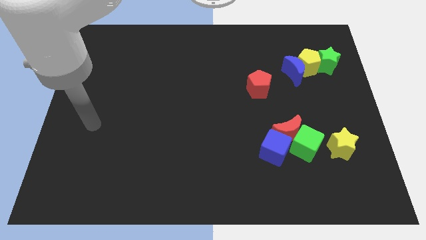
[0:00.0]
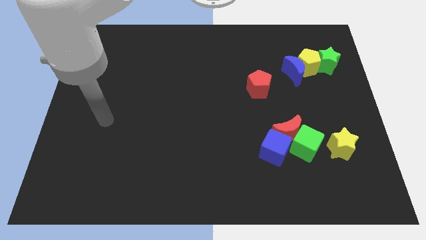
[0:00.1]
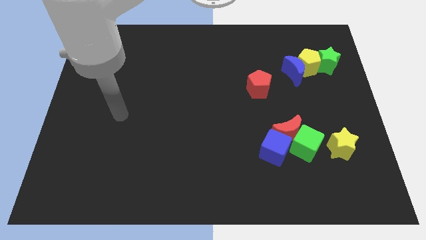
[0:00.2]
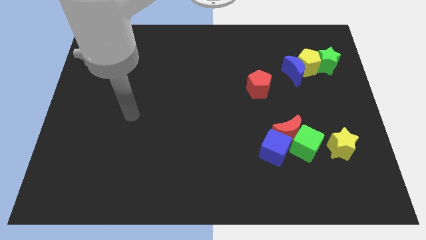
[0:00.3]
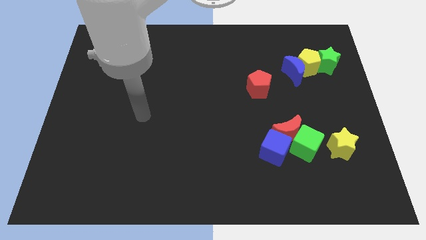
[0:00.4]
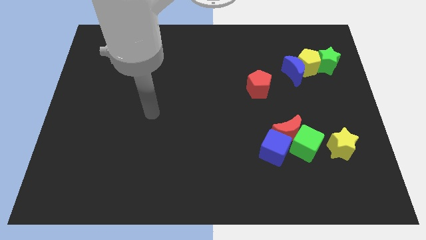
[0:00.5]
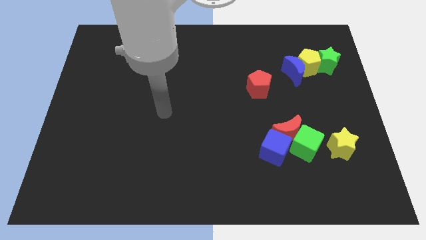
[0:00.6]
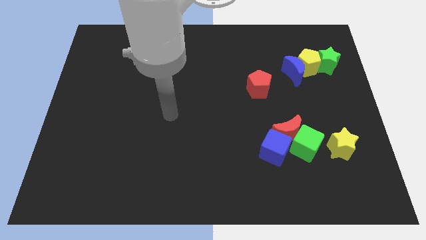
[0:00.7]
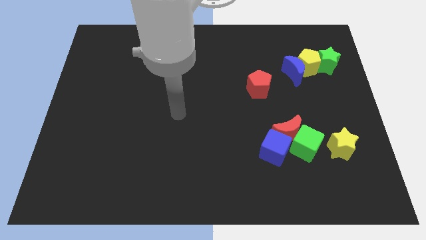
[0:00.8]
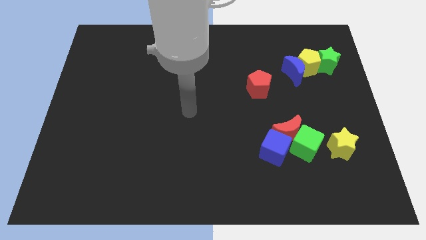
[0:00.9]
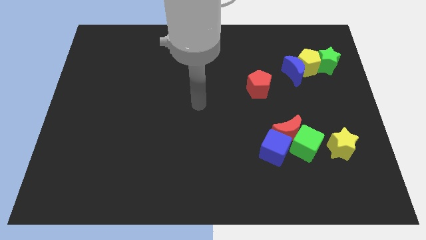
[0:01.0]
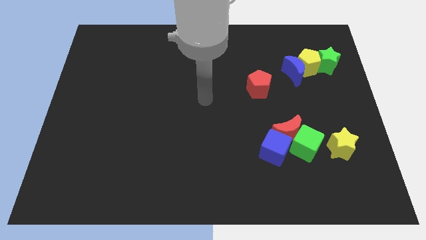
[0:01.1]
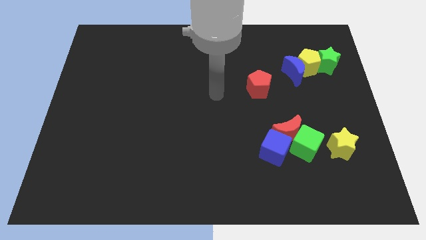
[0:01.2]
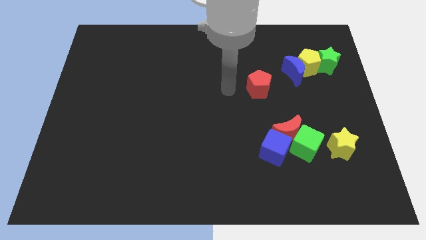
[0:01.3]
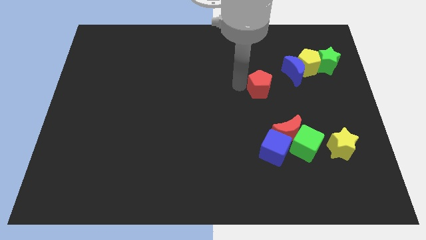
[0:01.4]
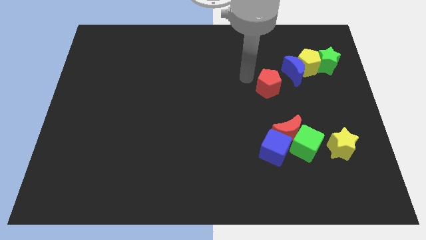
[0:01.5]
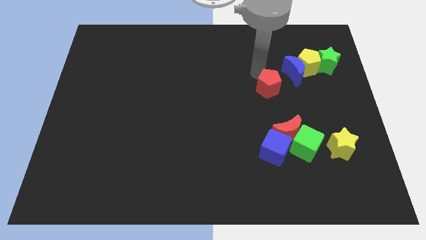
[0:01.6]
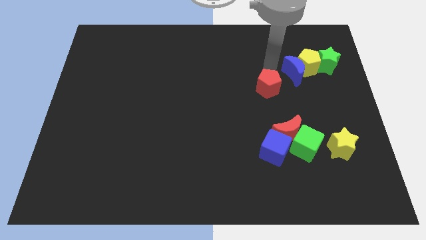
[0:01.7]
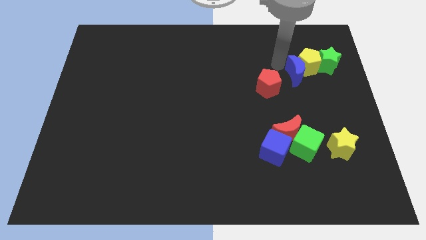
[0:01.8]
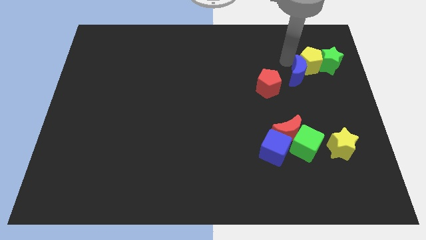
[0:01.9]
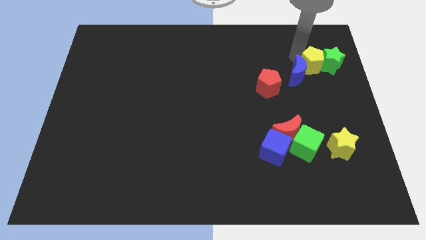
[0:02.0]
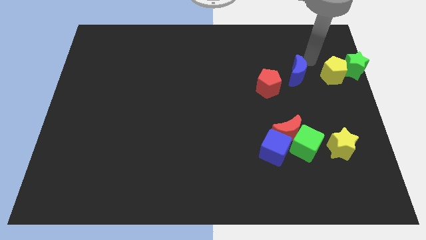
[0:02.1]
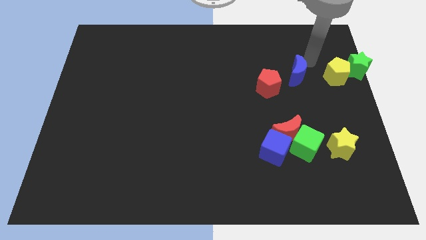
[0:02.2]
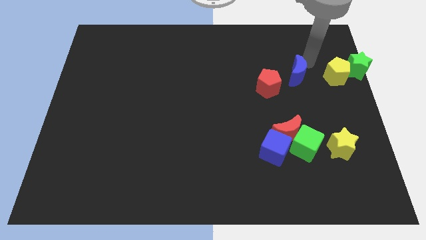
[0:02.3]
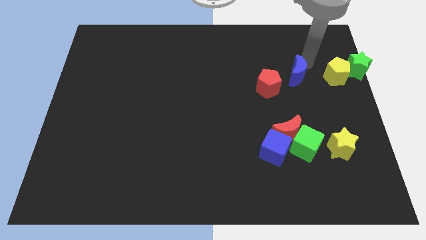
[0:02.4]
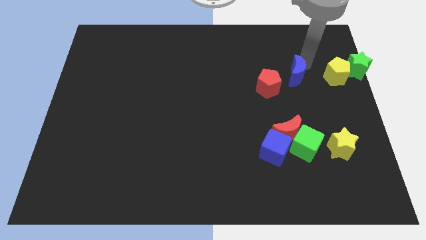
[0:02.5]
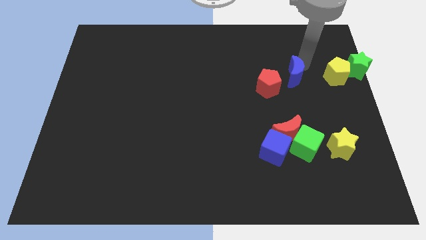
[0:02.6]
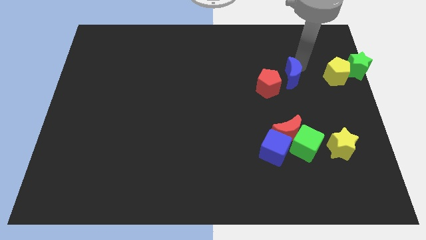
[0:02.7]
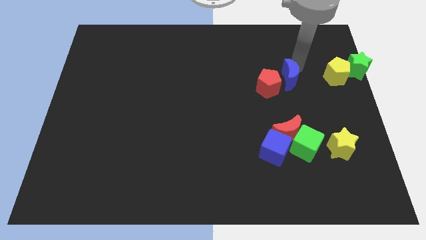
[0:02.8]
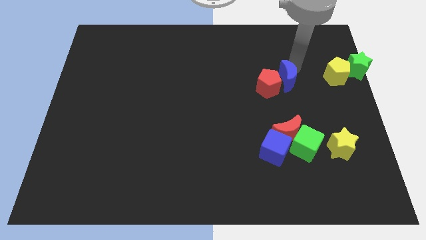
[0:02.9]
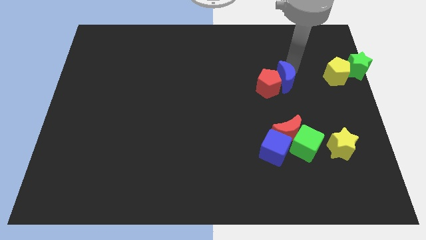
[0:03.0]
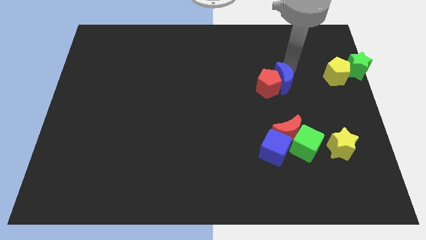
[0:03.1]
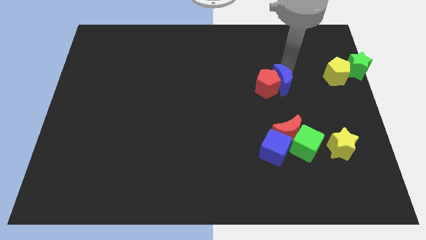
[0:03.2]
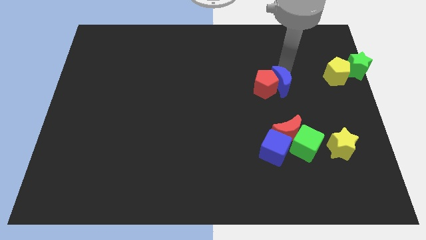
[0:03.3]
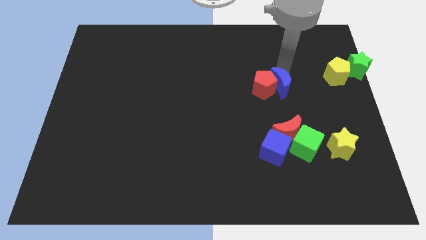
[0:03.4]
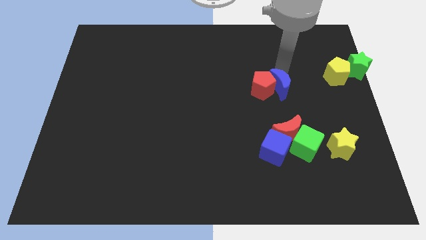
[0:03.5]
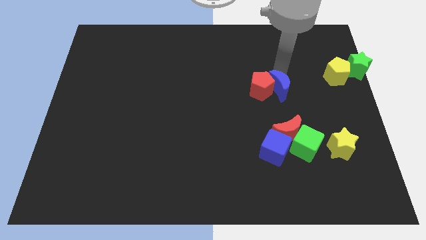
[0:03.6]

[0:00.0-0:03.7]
slightly push the blue moon diagonally down and left

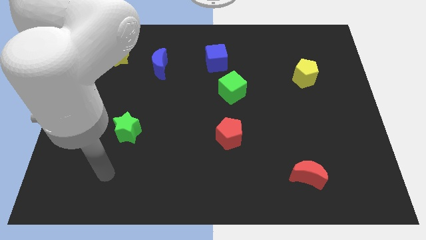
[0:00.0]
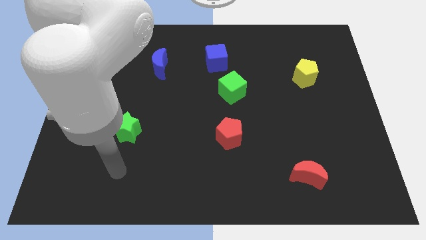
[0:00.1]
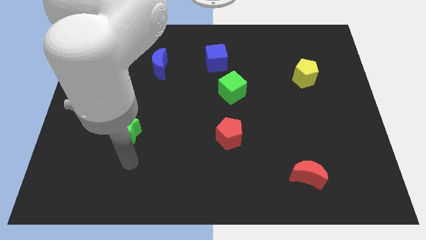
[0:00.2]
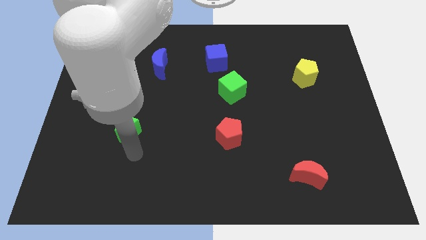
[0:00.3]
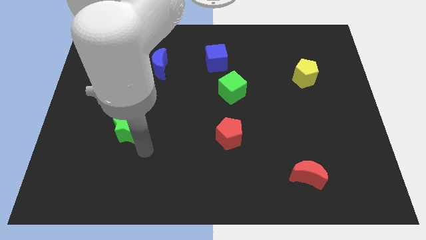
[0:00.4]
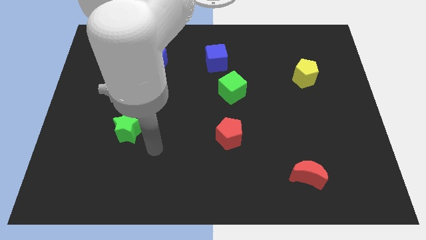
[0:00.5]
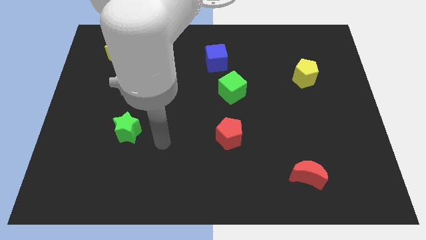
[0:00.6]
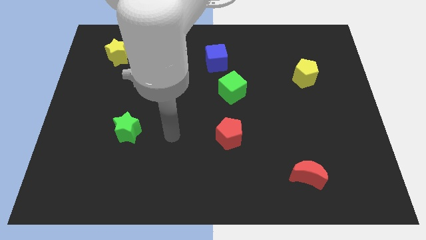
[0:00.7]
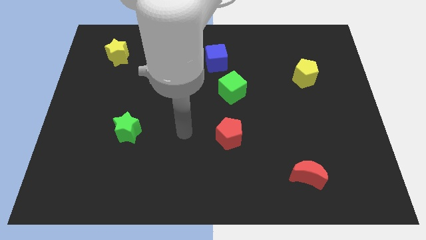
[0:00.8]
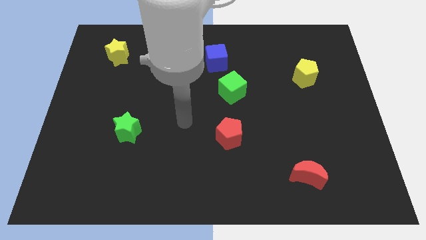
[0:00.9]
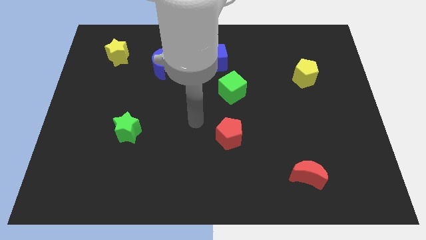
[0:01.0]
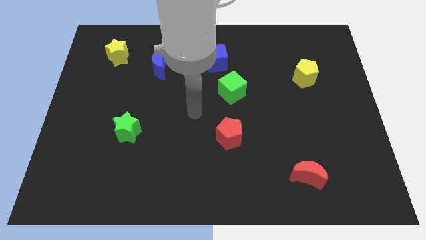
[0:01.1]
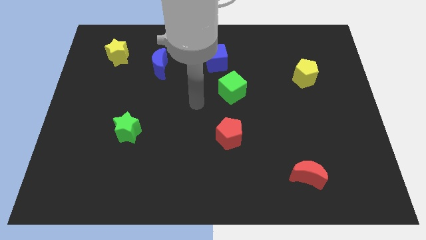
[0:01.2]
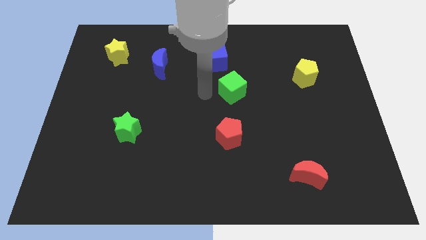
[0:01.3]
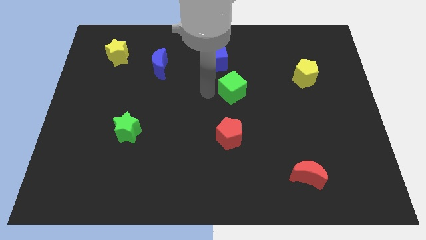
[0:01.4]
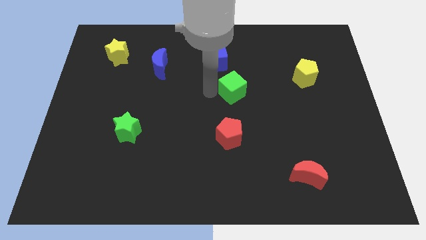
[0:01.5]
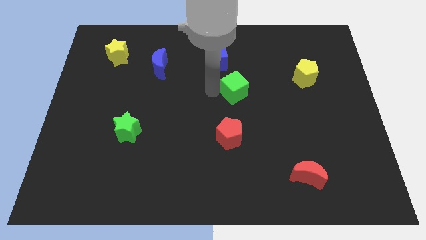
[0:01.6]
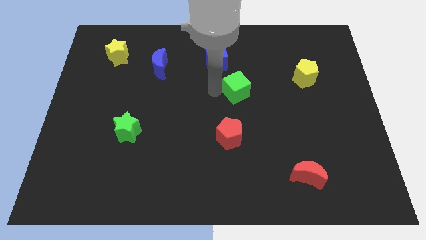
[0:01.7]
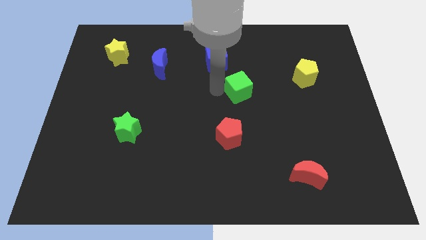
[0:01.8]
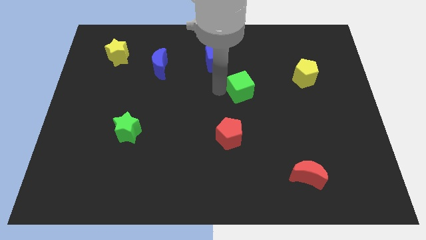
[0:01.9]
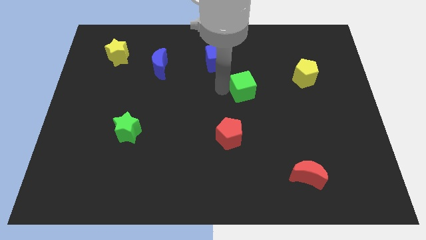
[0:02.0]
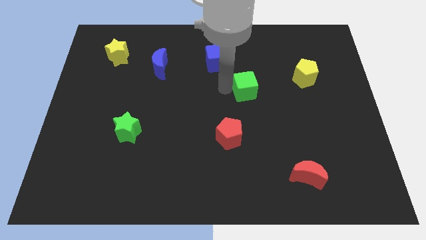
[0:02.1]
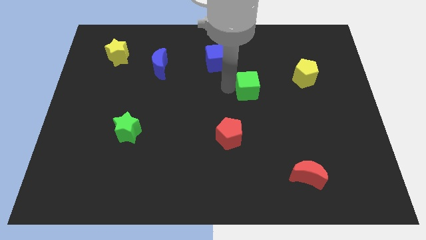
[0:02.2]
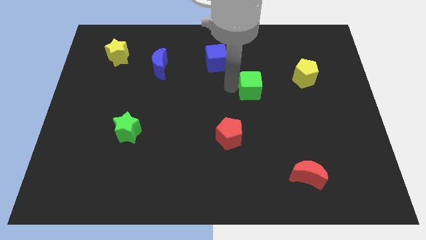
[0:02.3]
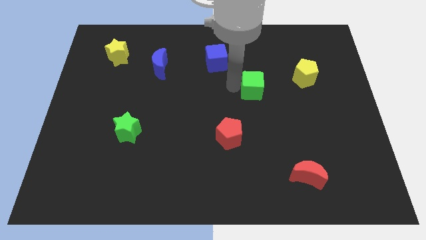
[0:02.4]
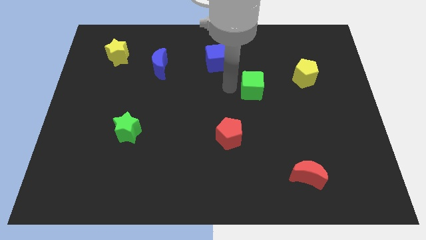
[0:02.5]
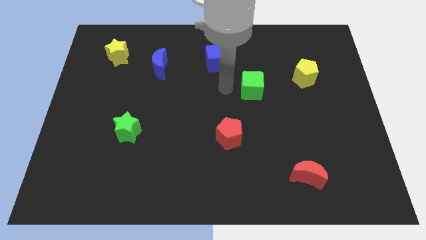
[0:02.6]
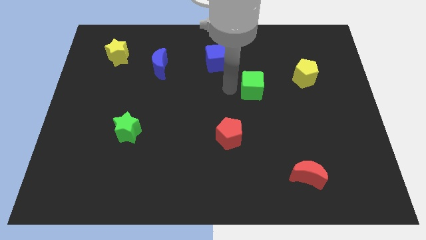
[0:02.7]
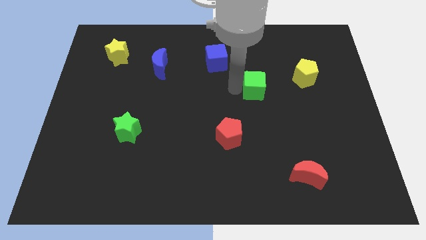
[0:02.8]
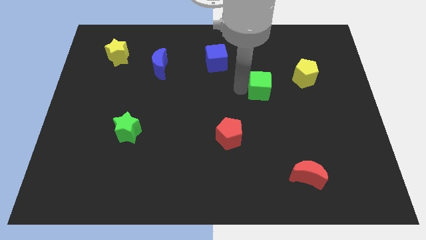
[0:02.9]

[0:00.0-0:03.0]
move the green cube to the right a bit

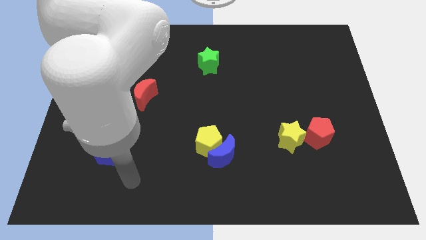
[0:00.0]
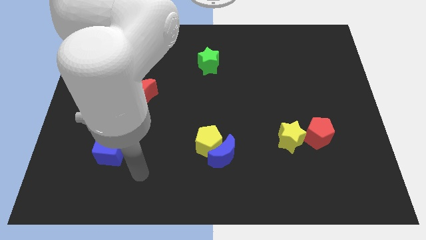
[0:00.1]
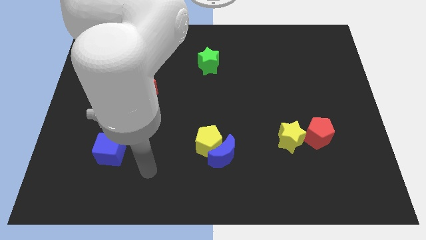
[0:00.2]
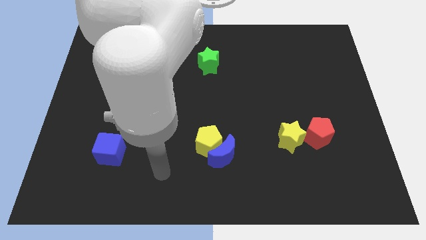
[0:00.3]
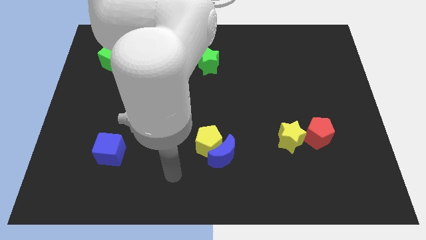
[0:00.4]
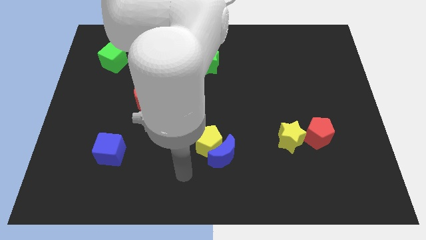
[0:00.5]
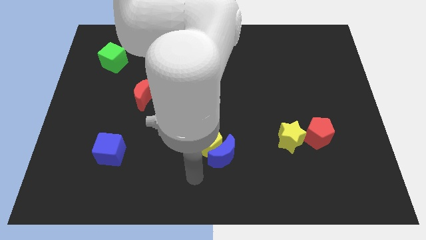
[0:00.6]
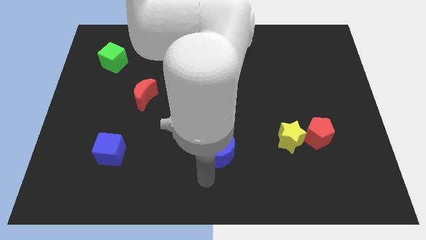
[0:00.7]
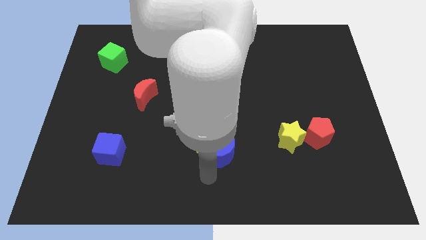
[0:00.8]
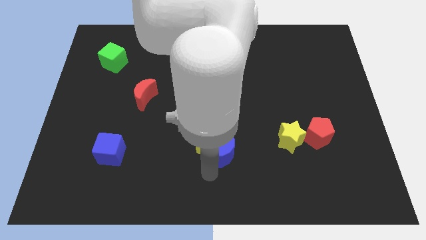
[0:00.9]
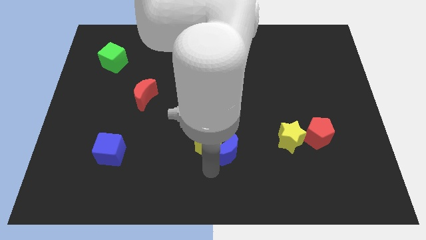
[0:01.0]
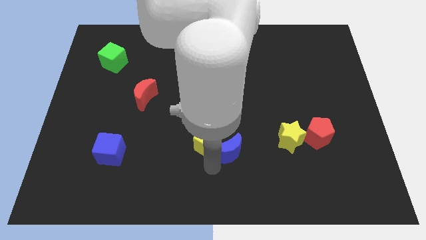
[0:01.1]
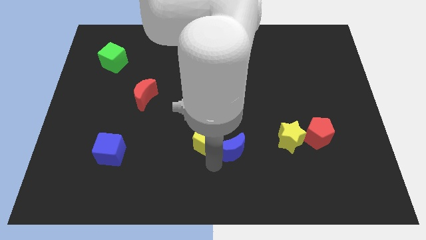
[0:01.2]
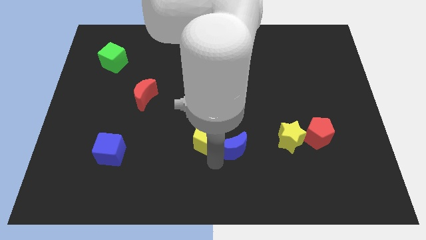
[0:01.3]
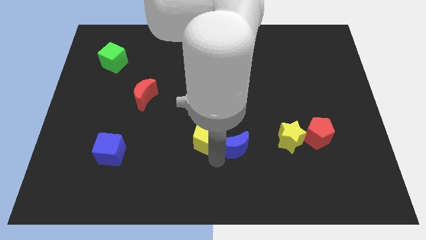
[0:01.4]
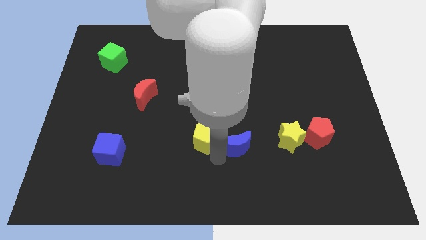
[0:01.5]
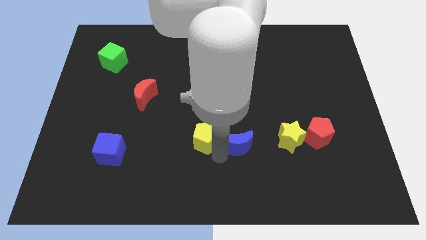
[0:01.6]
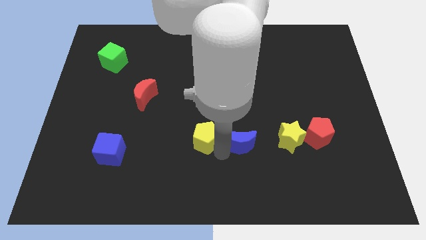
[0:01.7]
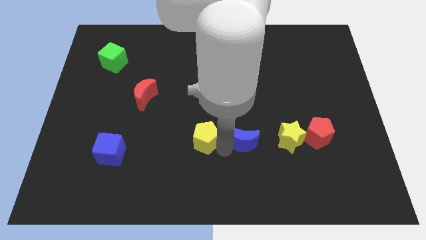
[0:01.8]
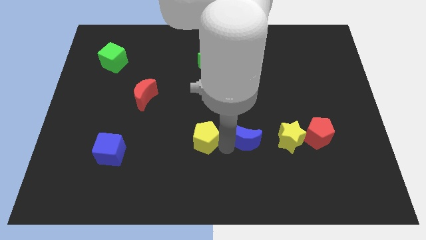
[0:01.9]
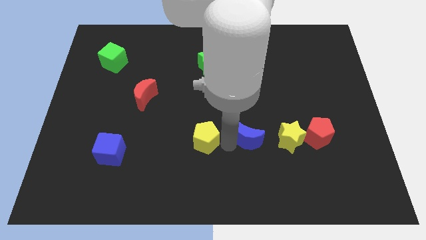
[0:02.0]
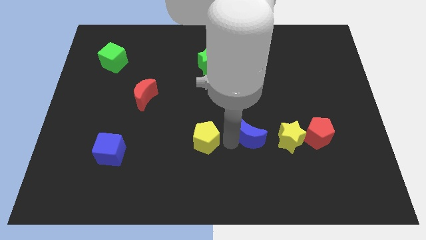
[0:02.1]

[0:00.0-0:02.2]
slightly push the blue moon upwards and right
